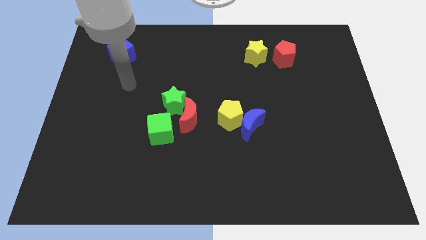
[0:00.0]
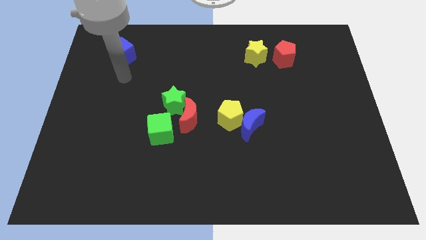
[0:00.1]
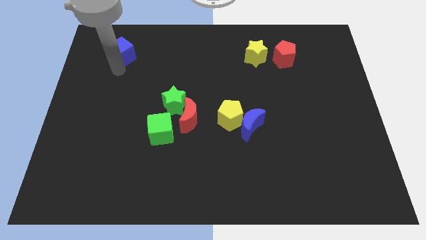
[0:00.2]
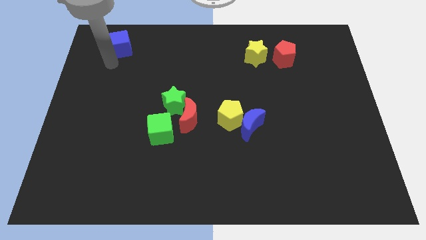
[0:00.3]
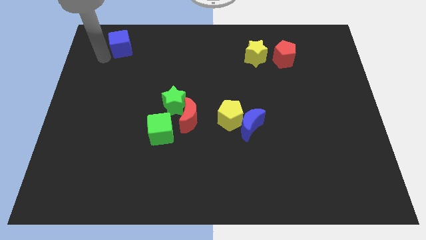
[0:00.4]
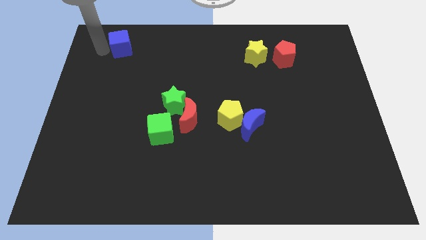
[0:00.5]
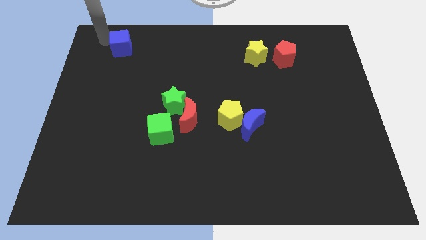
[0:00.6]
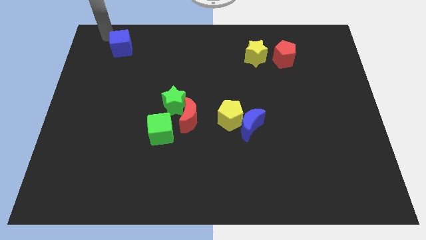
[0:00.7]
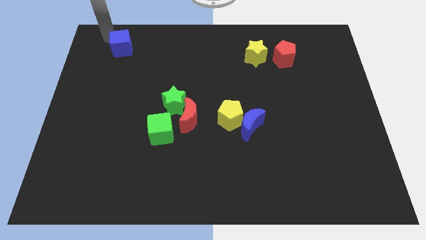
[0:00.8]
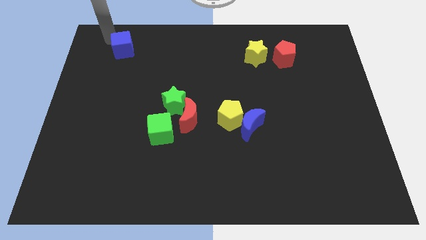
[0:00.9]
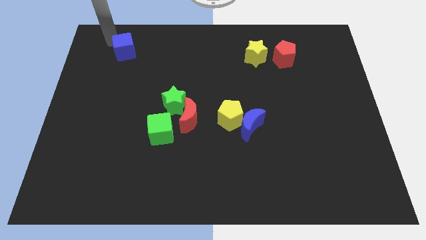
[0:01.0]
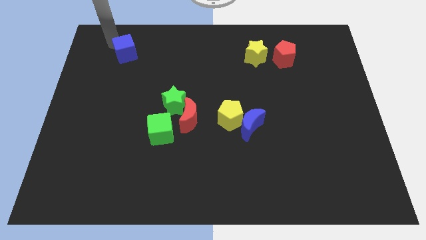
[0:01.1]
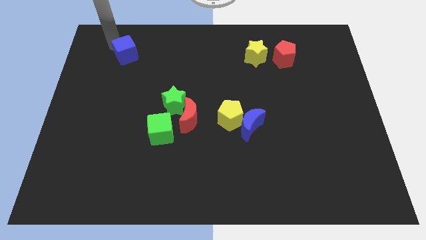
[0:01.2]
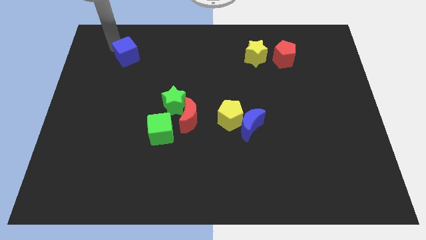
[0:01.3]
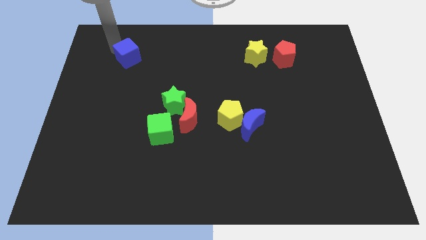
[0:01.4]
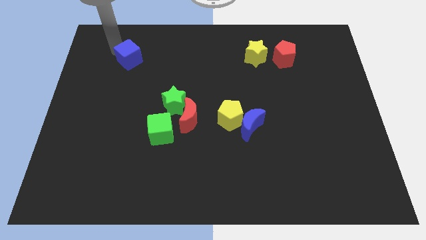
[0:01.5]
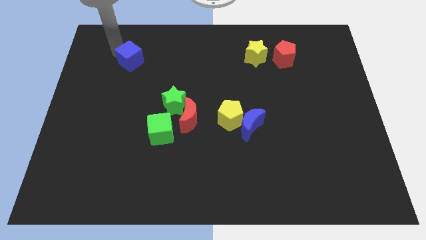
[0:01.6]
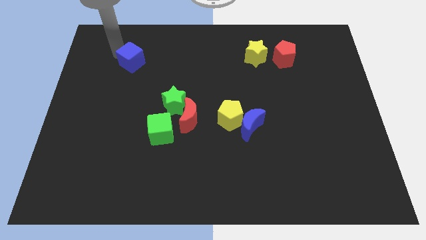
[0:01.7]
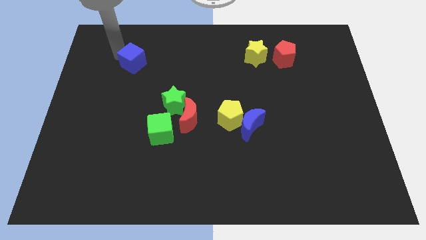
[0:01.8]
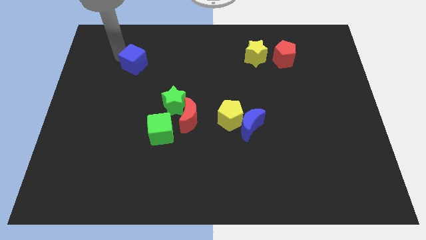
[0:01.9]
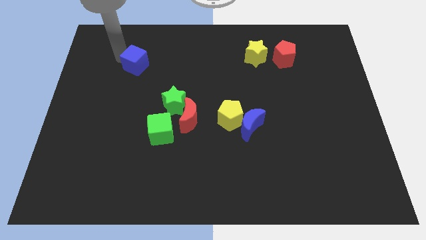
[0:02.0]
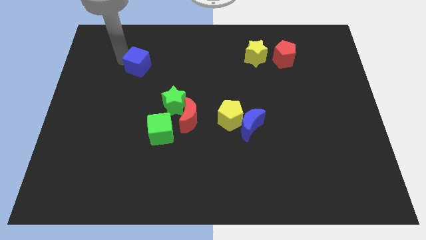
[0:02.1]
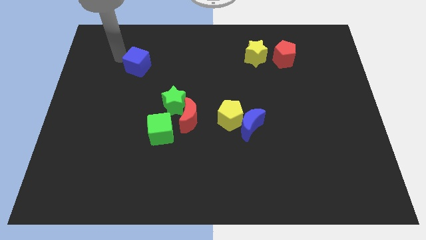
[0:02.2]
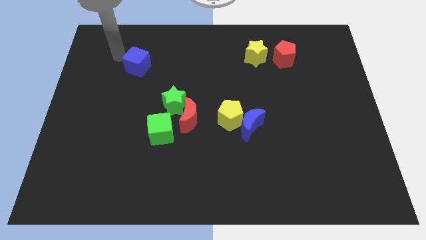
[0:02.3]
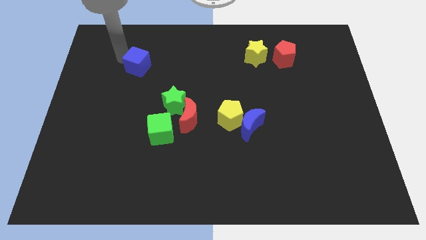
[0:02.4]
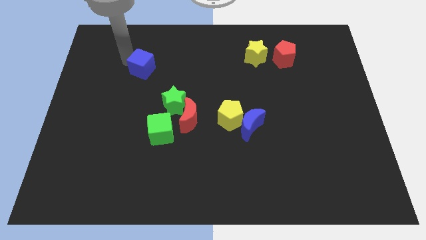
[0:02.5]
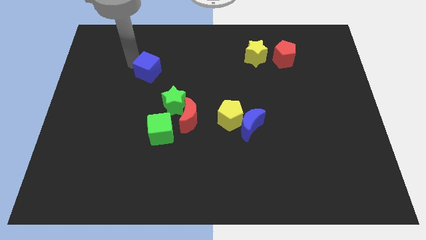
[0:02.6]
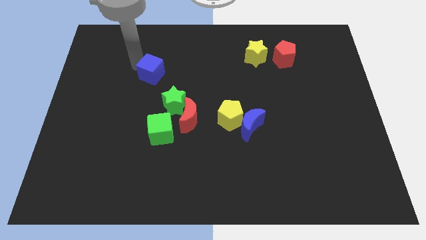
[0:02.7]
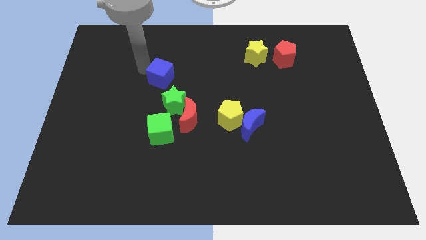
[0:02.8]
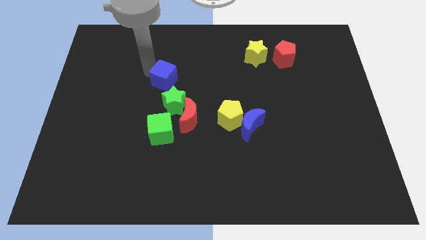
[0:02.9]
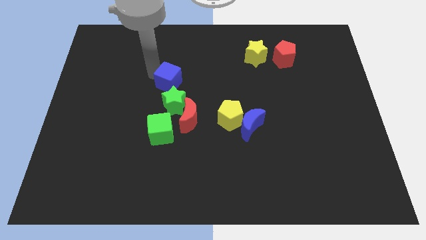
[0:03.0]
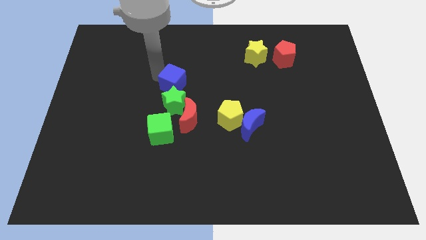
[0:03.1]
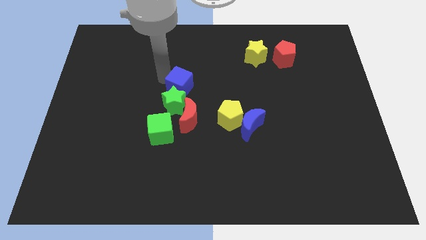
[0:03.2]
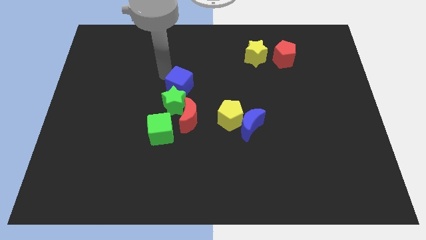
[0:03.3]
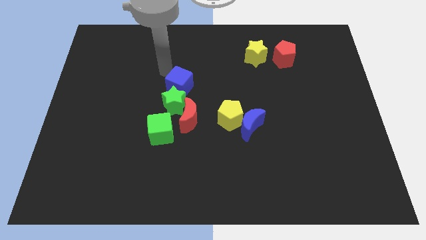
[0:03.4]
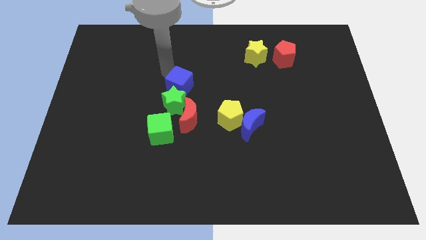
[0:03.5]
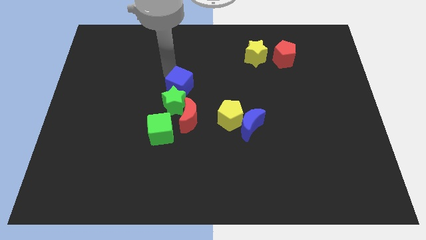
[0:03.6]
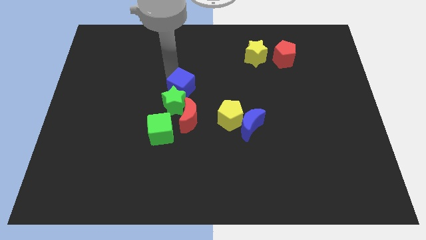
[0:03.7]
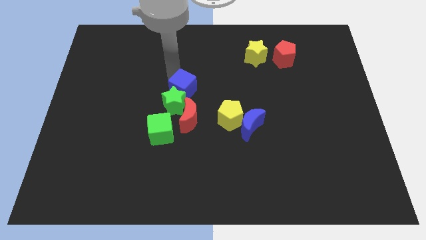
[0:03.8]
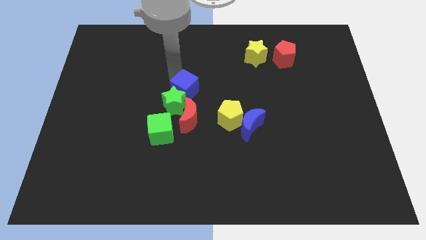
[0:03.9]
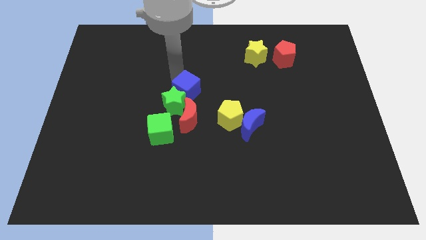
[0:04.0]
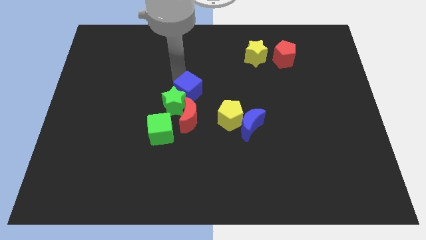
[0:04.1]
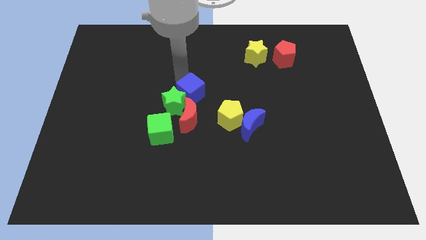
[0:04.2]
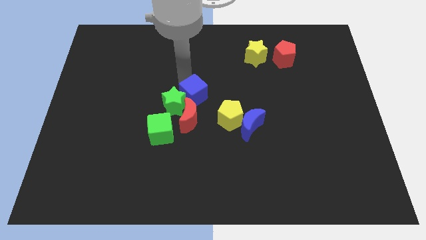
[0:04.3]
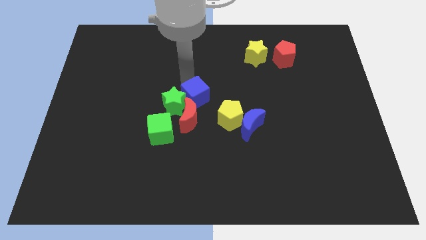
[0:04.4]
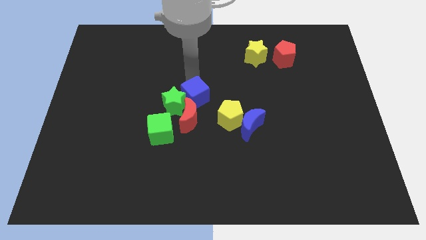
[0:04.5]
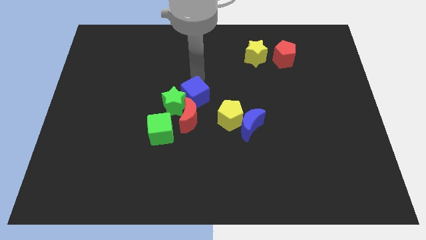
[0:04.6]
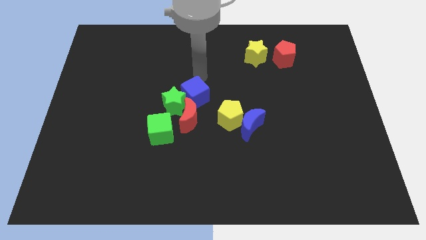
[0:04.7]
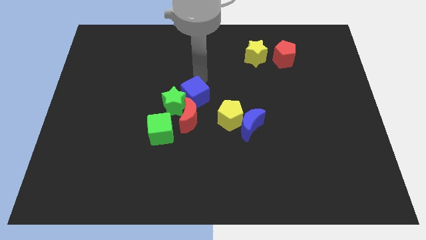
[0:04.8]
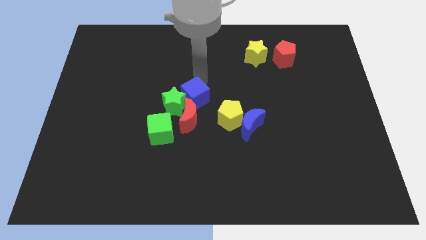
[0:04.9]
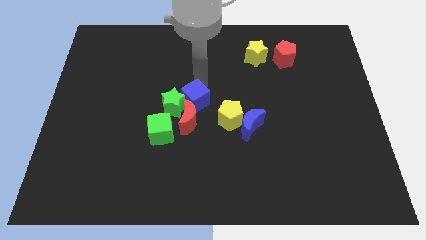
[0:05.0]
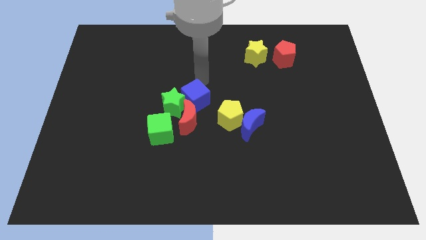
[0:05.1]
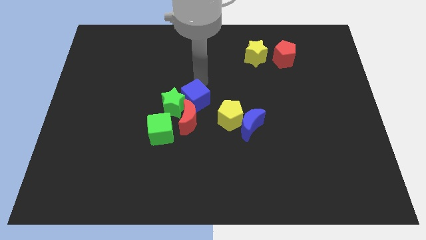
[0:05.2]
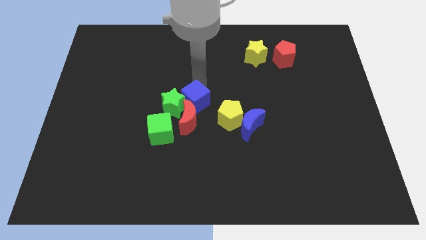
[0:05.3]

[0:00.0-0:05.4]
put the blue cube towards the red moon

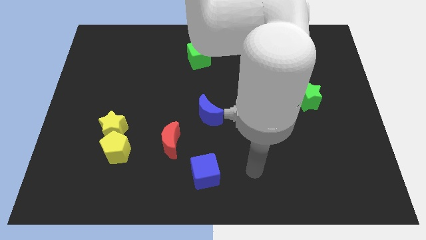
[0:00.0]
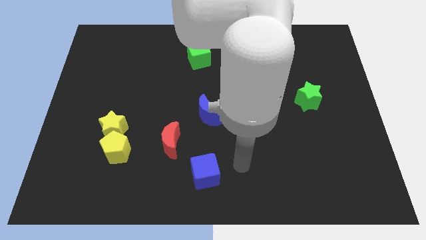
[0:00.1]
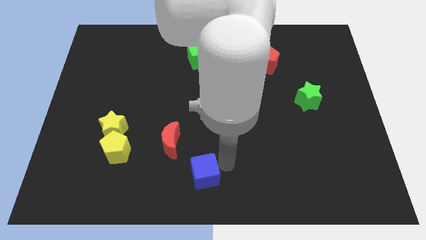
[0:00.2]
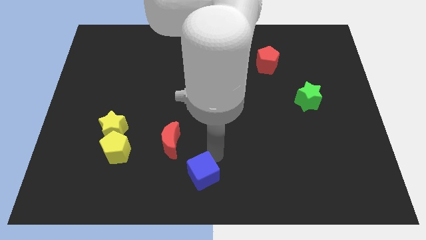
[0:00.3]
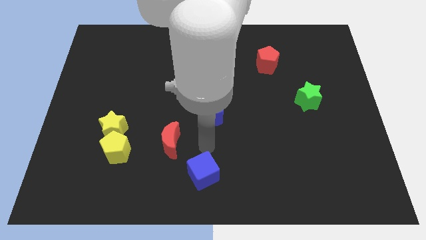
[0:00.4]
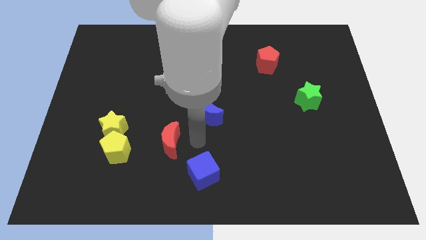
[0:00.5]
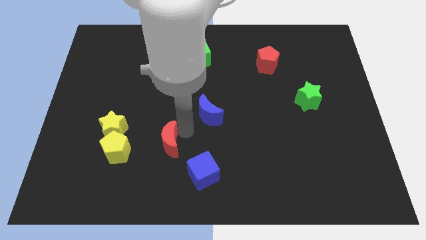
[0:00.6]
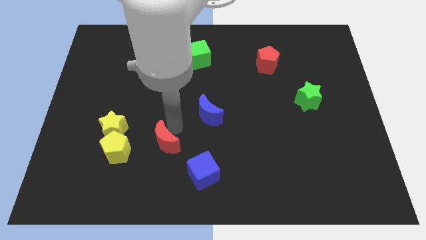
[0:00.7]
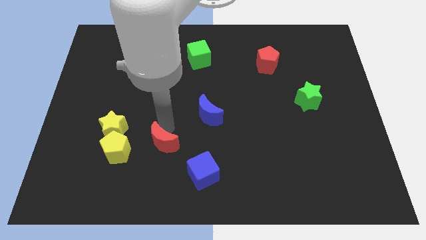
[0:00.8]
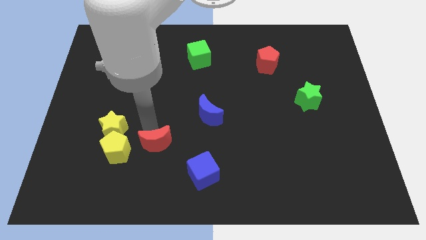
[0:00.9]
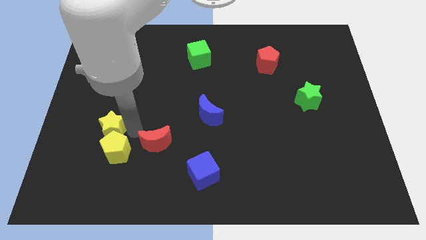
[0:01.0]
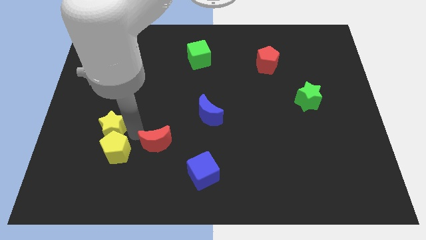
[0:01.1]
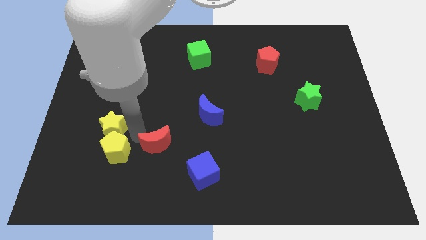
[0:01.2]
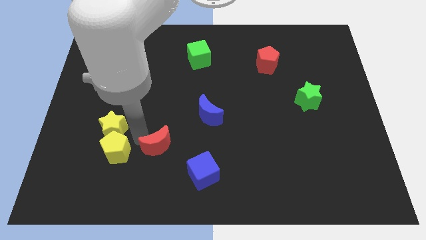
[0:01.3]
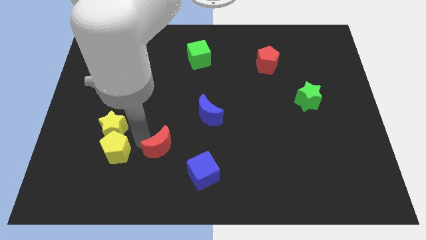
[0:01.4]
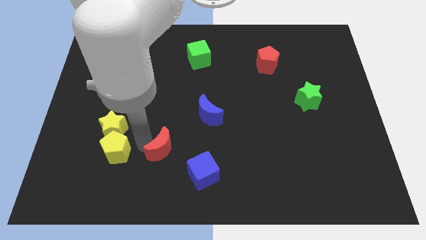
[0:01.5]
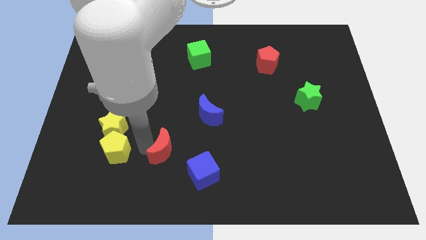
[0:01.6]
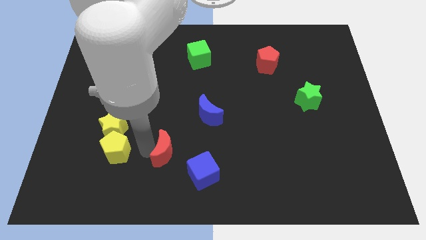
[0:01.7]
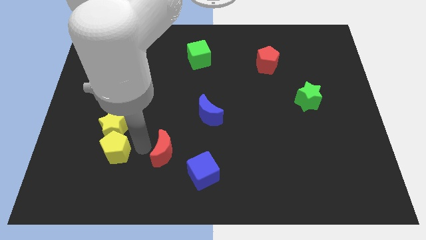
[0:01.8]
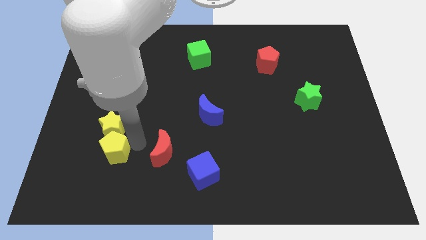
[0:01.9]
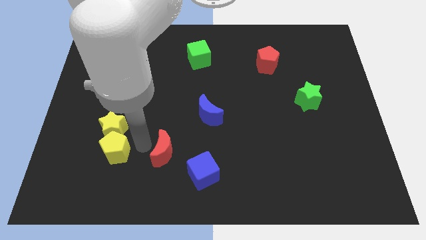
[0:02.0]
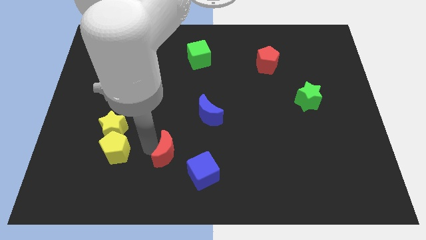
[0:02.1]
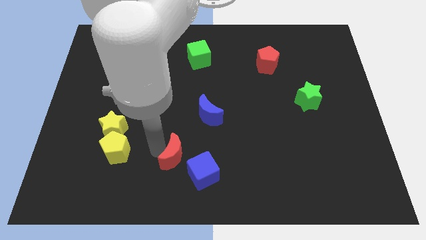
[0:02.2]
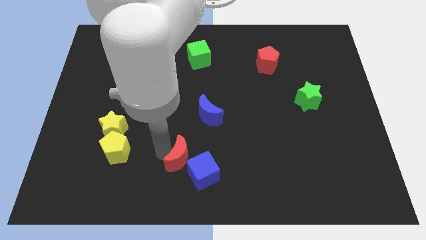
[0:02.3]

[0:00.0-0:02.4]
move the red moon next to the blue cube
